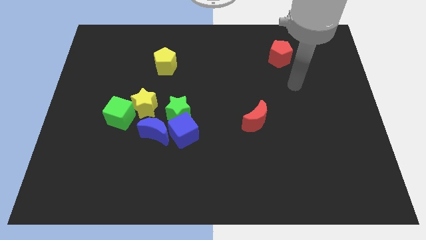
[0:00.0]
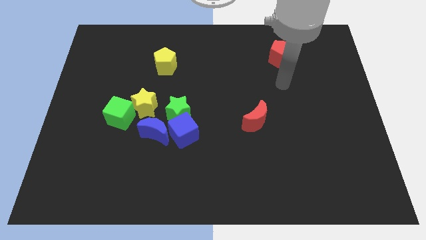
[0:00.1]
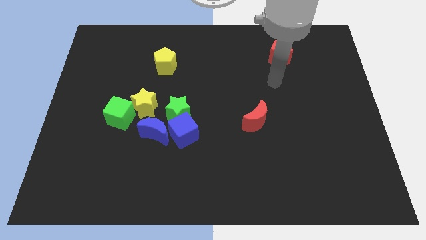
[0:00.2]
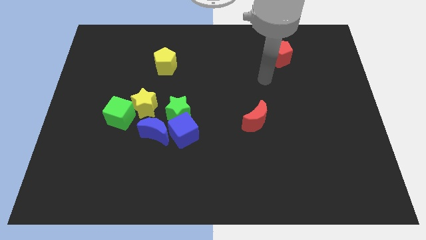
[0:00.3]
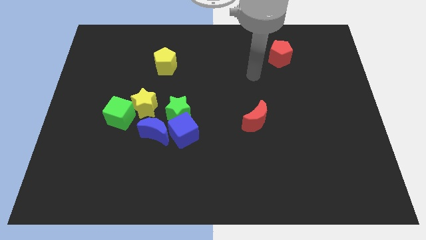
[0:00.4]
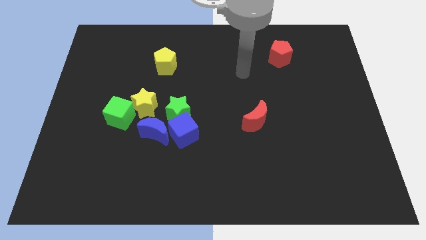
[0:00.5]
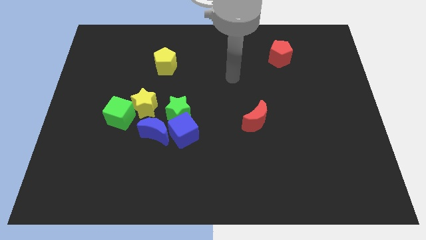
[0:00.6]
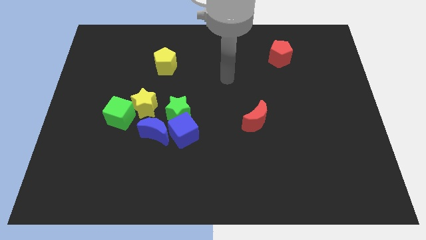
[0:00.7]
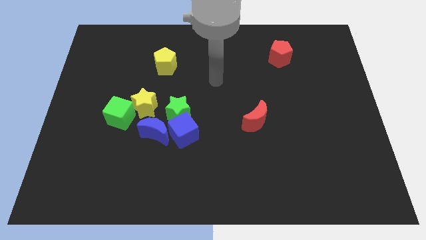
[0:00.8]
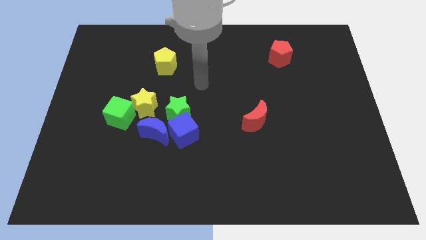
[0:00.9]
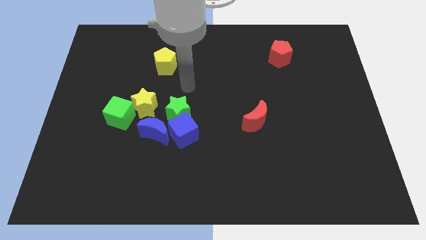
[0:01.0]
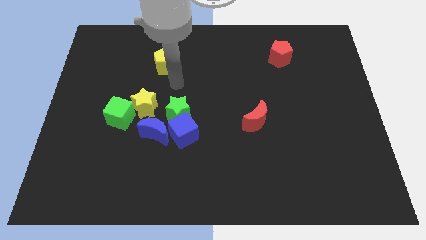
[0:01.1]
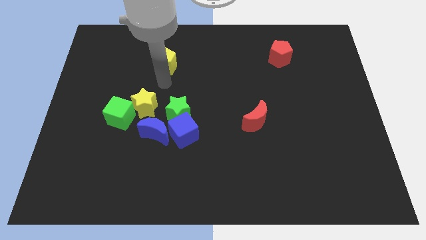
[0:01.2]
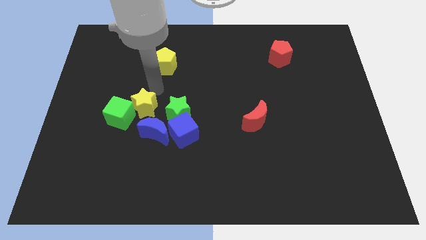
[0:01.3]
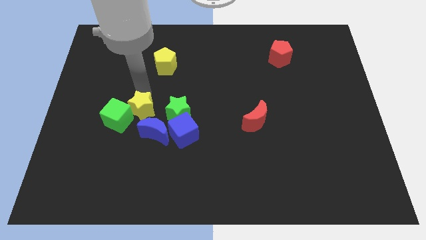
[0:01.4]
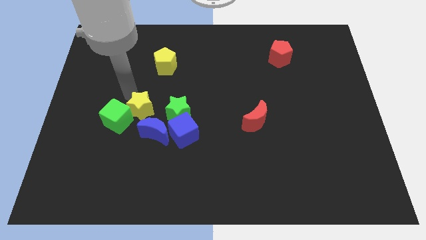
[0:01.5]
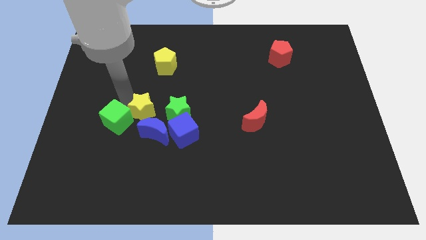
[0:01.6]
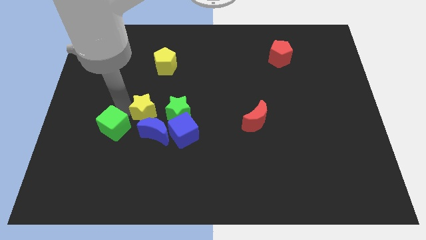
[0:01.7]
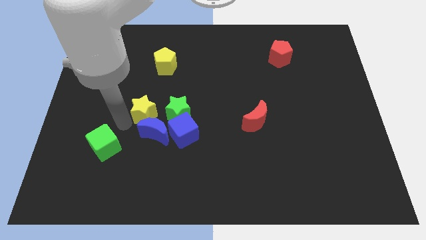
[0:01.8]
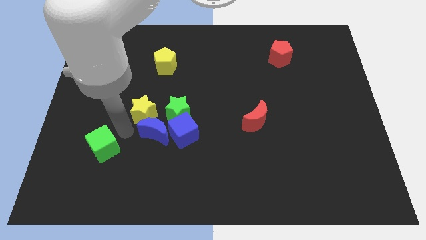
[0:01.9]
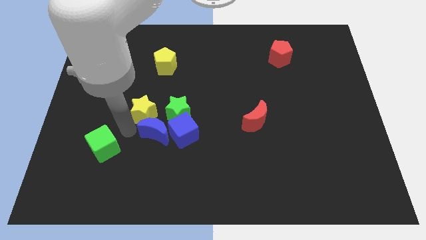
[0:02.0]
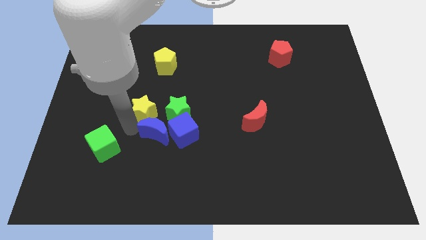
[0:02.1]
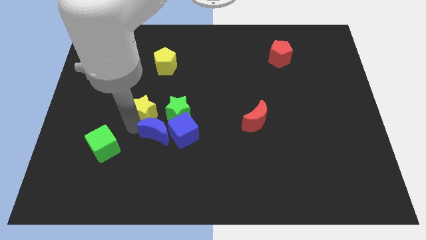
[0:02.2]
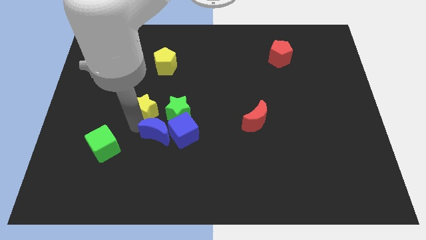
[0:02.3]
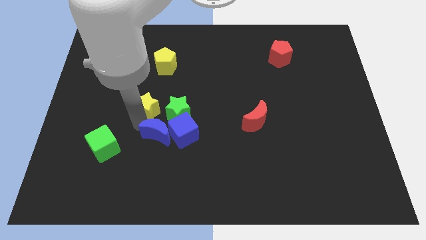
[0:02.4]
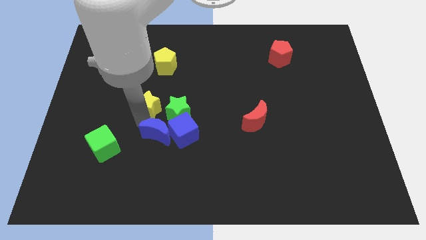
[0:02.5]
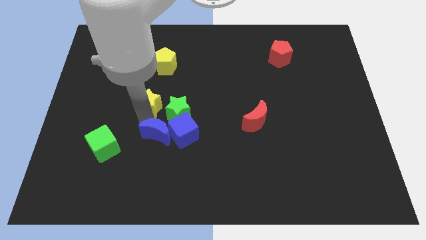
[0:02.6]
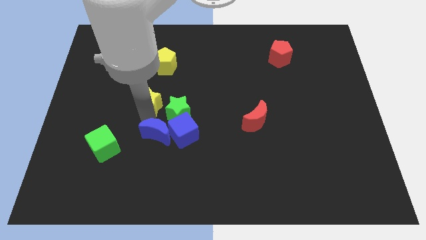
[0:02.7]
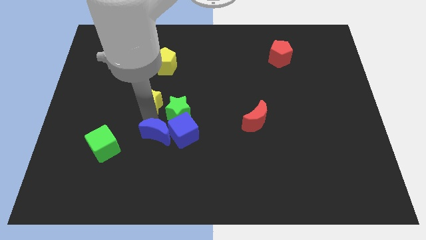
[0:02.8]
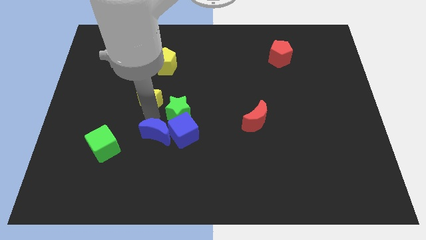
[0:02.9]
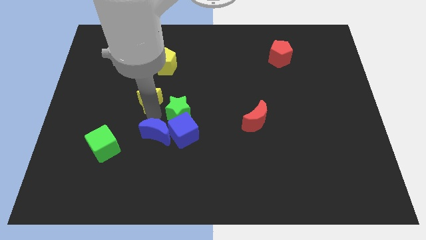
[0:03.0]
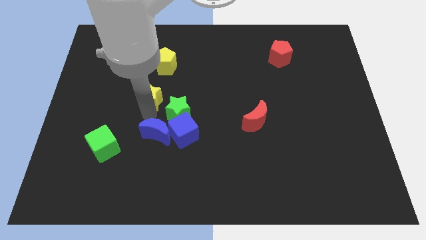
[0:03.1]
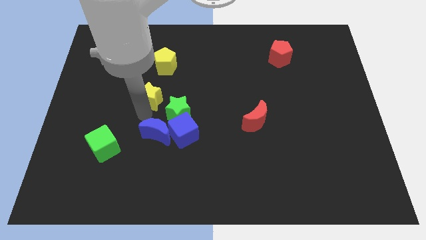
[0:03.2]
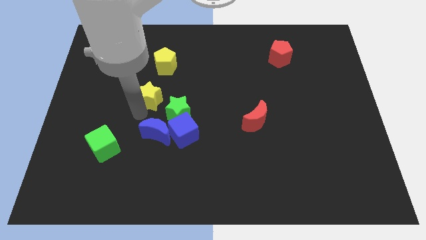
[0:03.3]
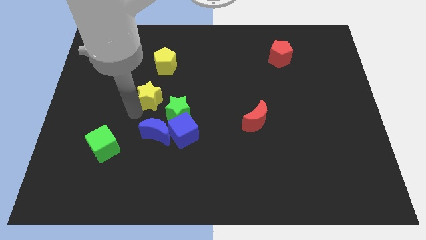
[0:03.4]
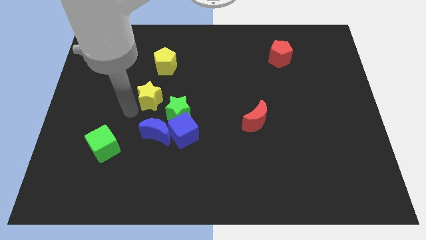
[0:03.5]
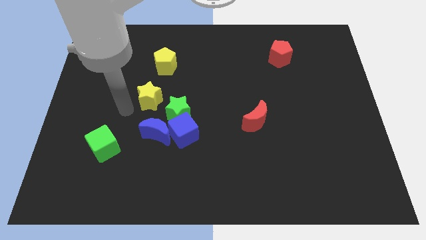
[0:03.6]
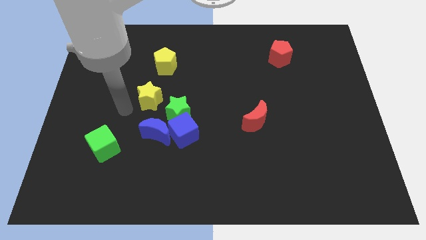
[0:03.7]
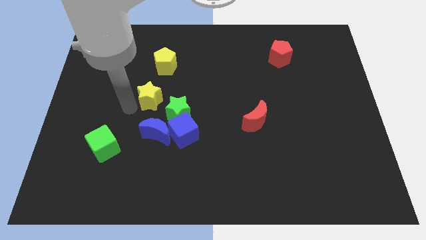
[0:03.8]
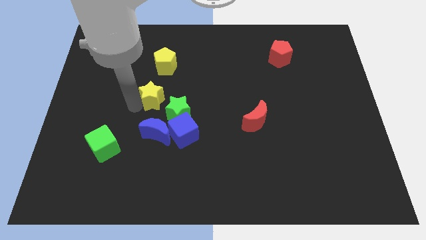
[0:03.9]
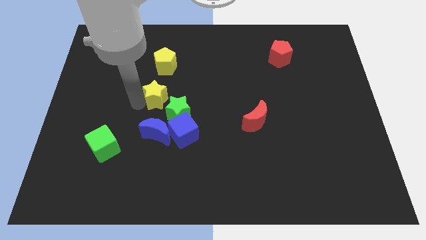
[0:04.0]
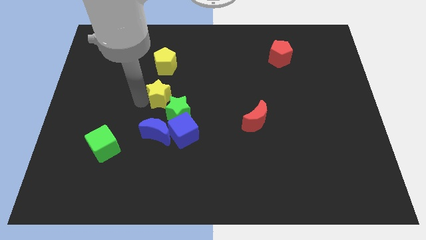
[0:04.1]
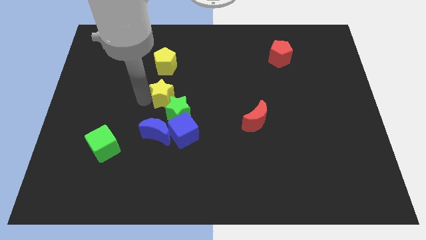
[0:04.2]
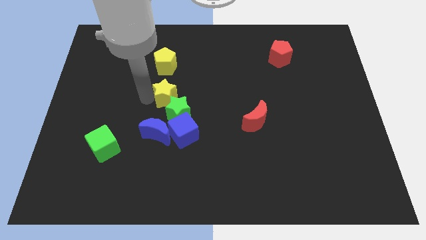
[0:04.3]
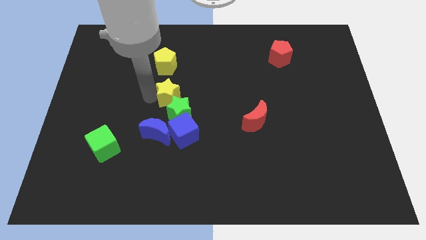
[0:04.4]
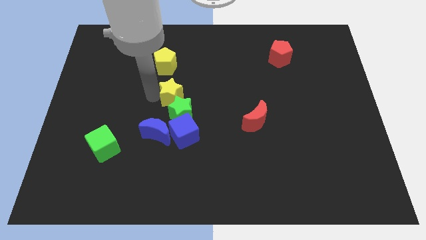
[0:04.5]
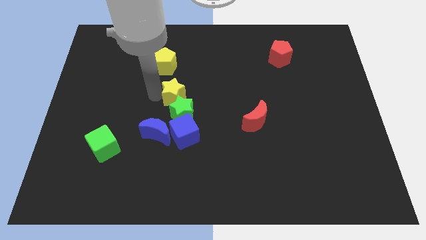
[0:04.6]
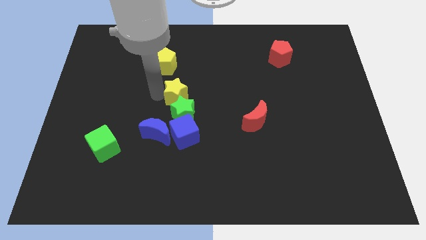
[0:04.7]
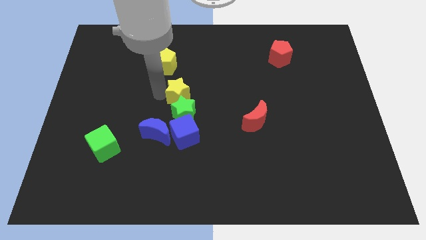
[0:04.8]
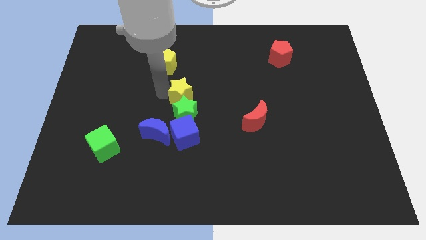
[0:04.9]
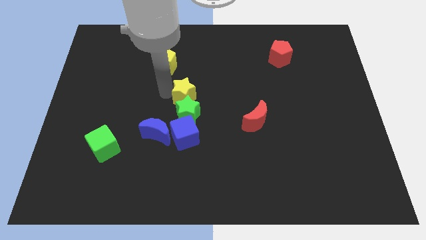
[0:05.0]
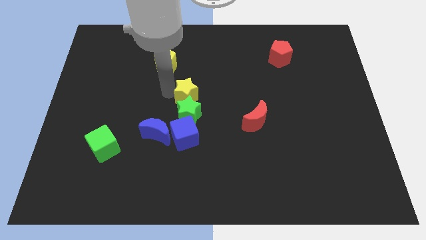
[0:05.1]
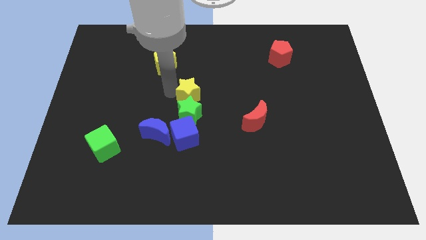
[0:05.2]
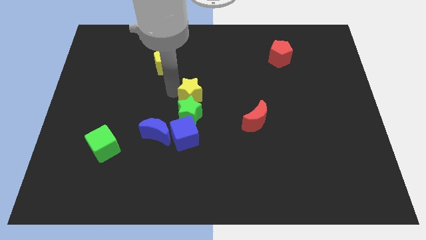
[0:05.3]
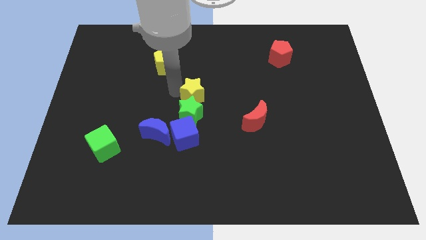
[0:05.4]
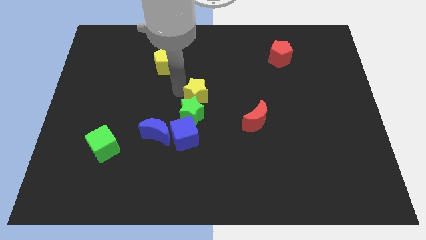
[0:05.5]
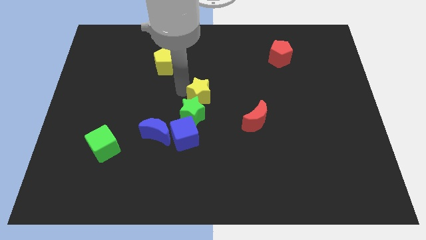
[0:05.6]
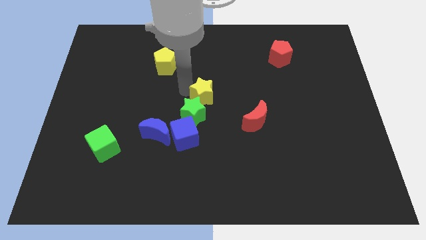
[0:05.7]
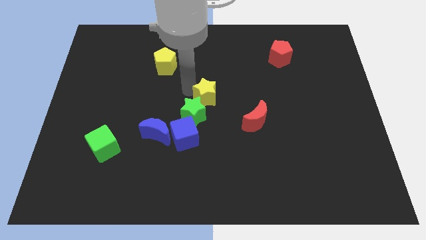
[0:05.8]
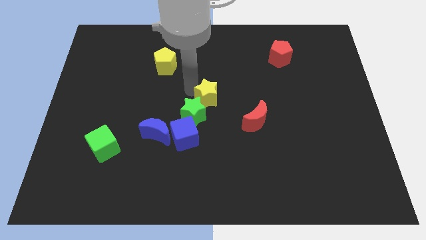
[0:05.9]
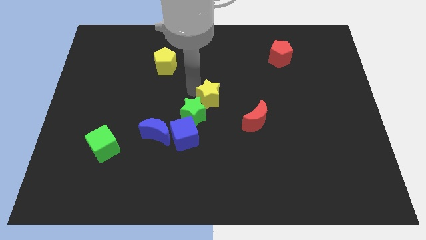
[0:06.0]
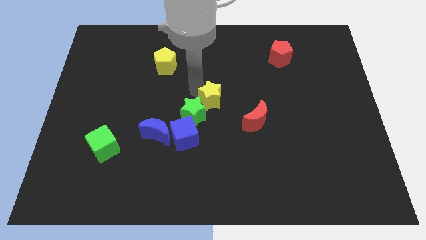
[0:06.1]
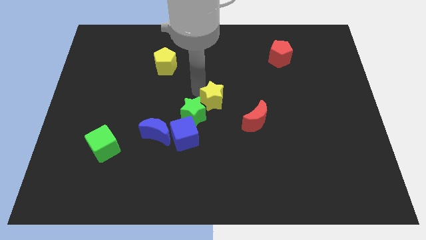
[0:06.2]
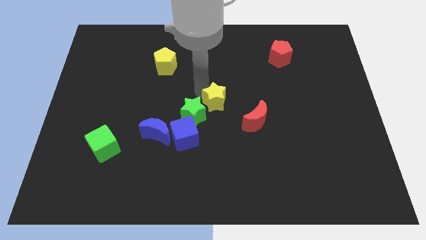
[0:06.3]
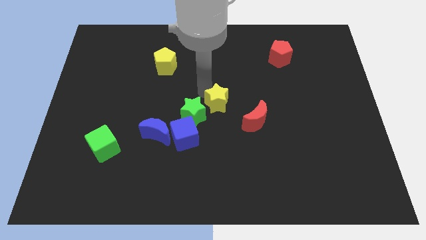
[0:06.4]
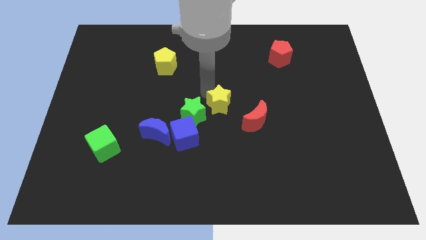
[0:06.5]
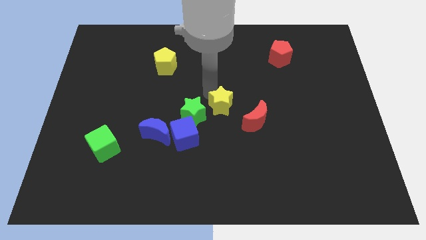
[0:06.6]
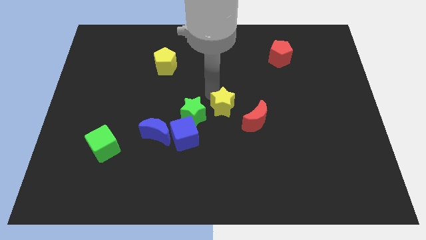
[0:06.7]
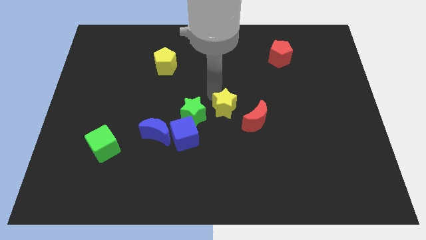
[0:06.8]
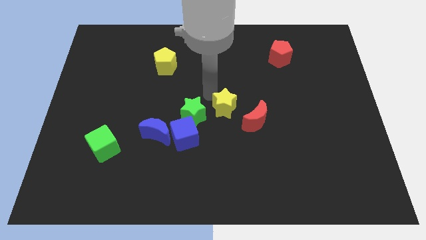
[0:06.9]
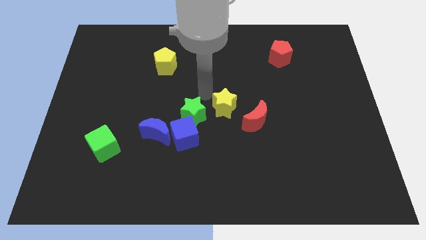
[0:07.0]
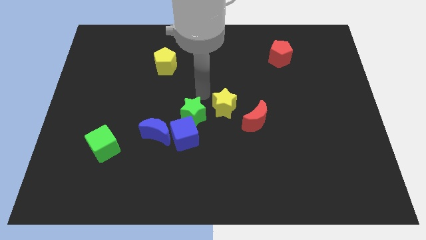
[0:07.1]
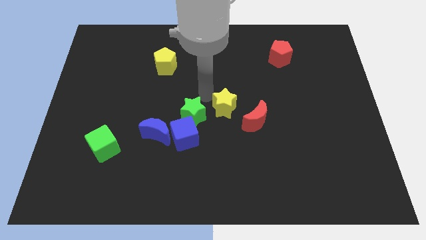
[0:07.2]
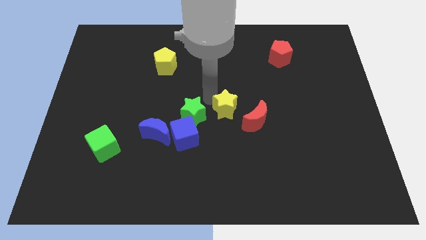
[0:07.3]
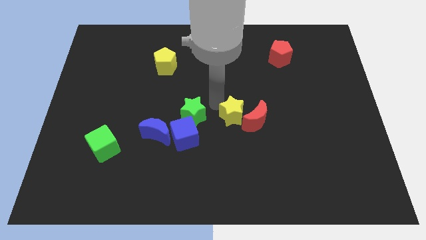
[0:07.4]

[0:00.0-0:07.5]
slide the yellow star towards the red moon
